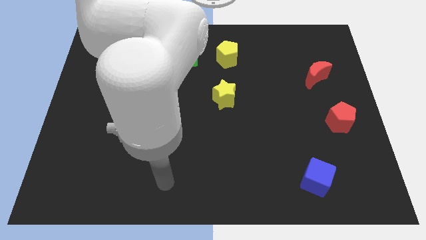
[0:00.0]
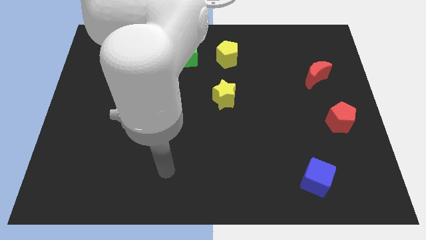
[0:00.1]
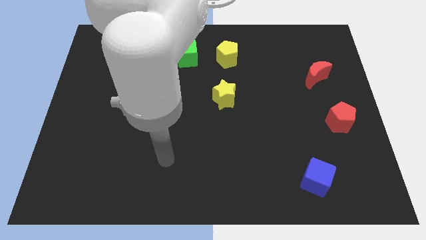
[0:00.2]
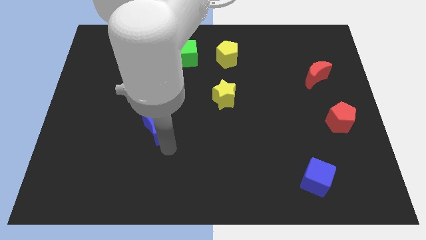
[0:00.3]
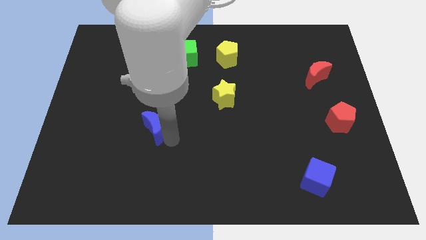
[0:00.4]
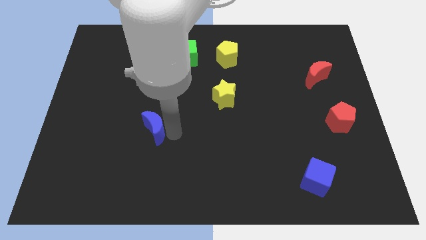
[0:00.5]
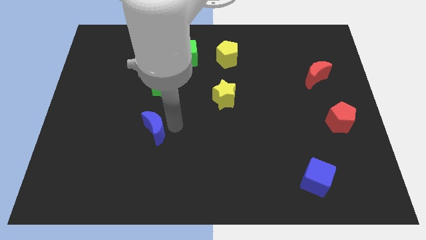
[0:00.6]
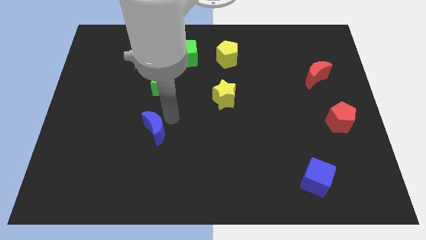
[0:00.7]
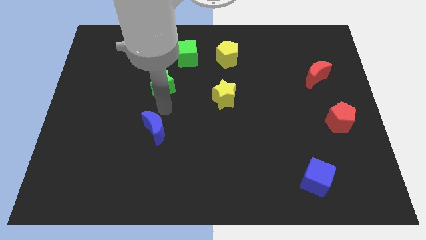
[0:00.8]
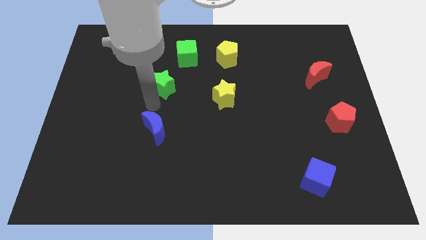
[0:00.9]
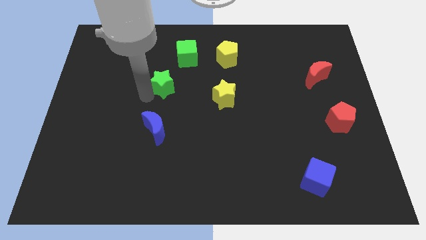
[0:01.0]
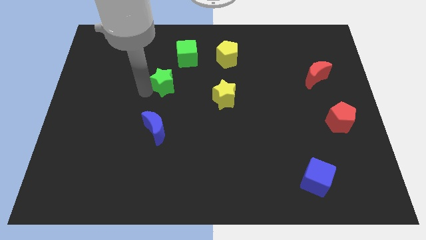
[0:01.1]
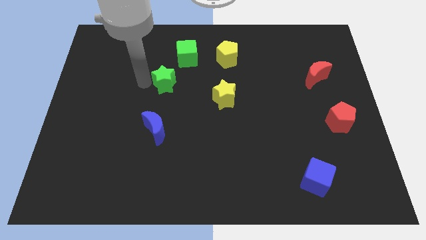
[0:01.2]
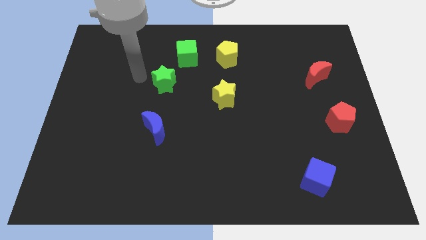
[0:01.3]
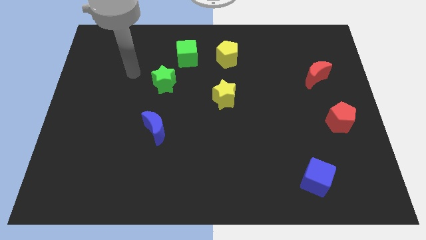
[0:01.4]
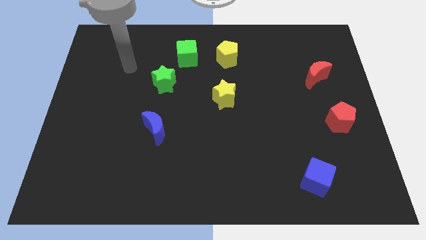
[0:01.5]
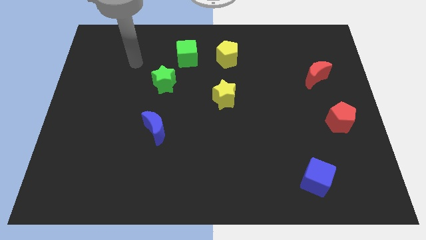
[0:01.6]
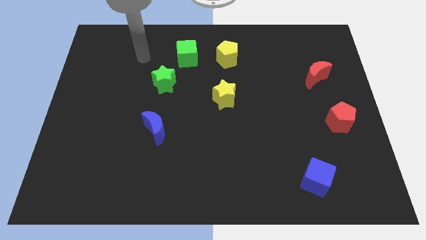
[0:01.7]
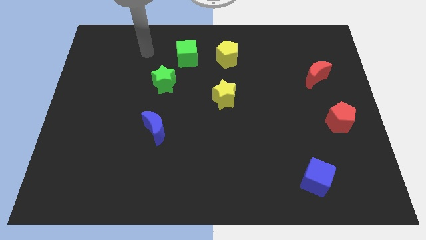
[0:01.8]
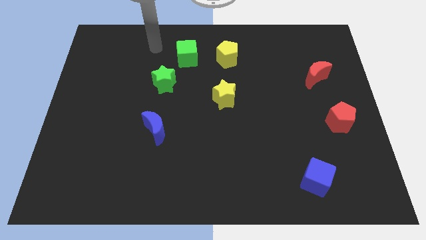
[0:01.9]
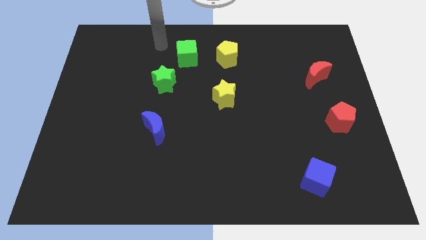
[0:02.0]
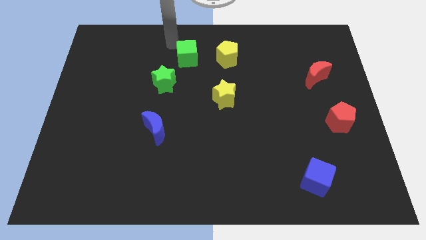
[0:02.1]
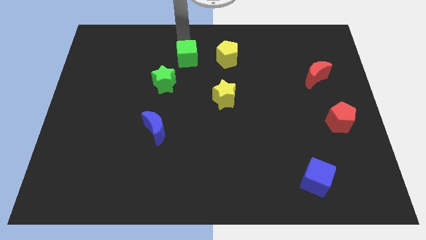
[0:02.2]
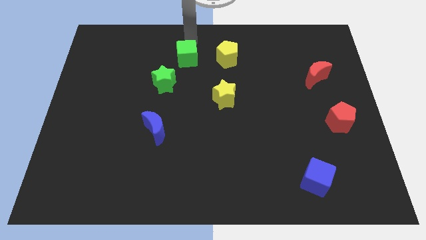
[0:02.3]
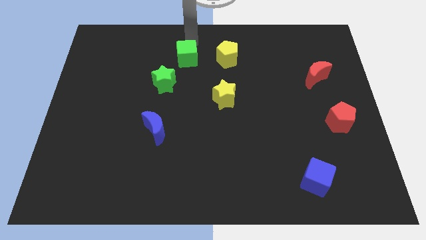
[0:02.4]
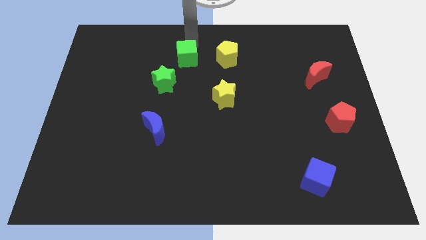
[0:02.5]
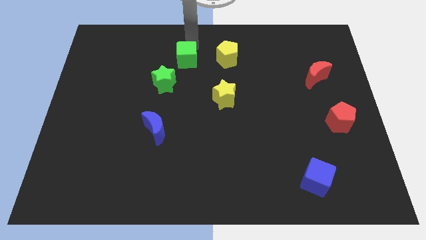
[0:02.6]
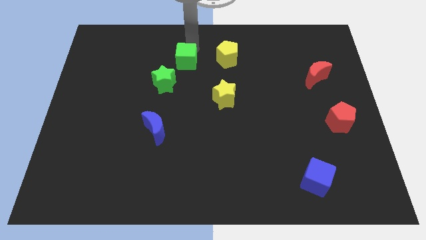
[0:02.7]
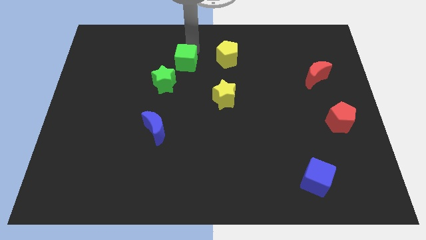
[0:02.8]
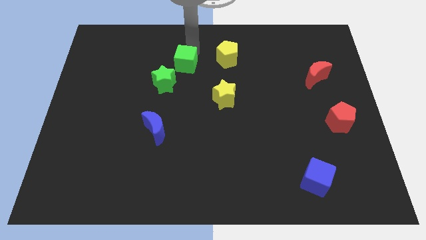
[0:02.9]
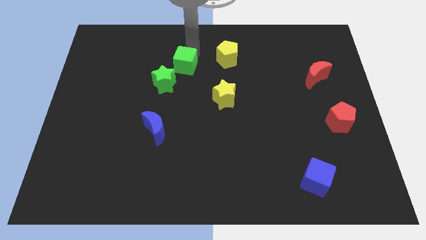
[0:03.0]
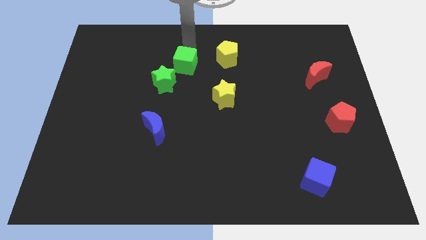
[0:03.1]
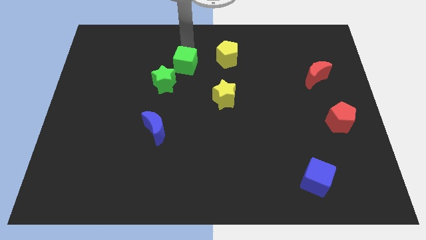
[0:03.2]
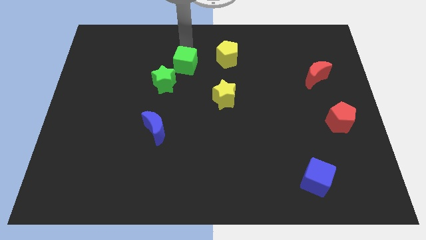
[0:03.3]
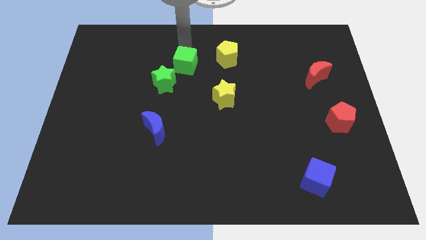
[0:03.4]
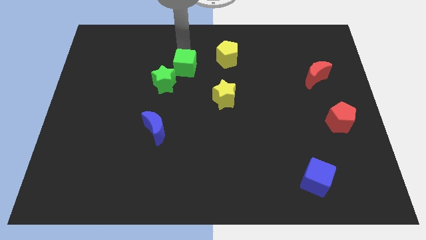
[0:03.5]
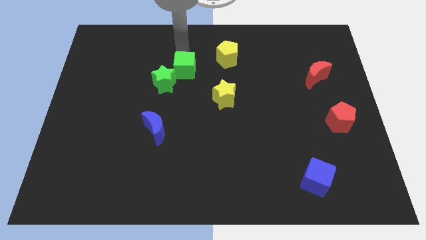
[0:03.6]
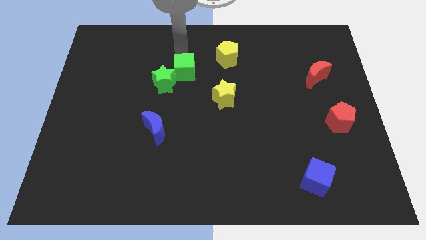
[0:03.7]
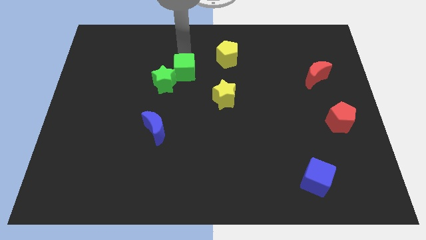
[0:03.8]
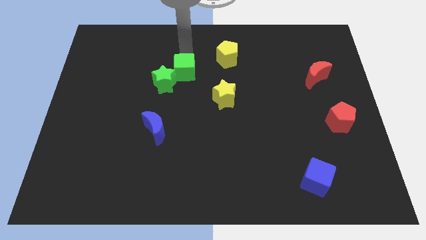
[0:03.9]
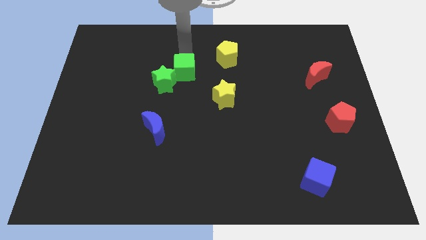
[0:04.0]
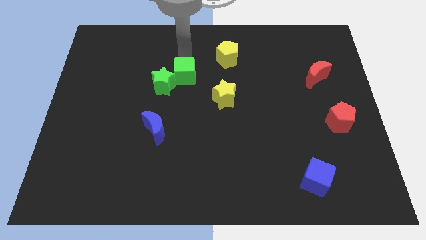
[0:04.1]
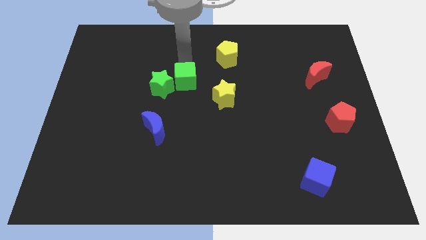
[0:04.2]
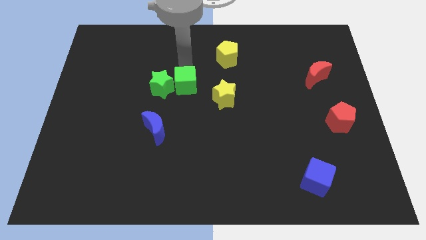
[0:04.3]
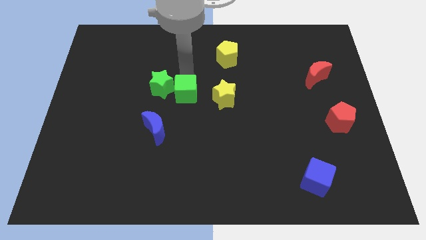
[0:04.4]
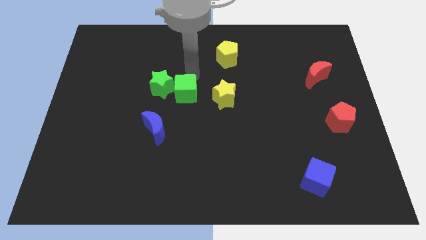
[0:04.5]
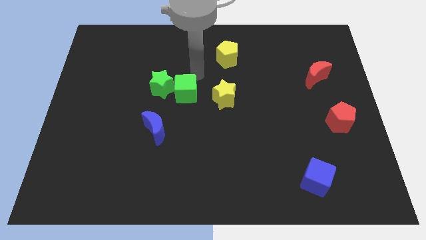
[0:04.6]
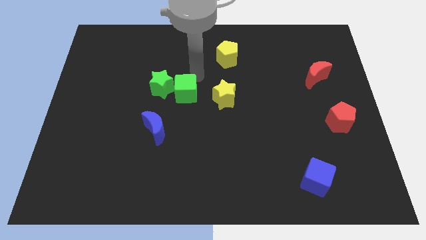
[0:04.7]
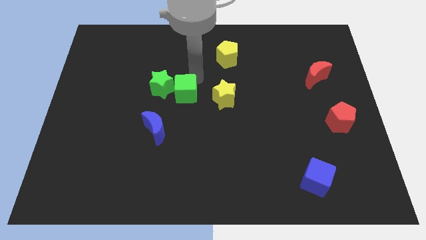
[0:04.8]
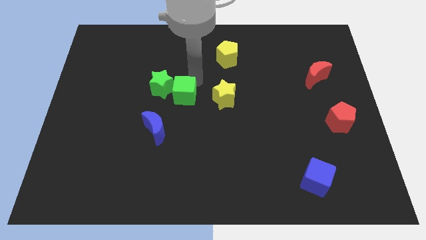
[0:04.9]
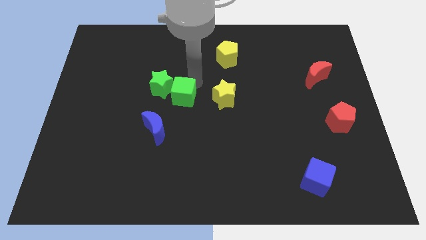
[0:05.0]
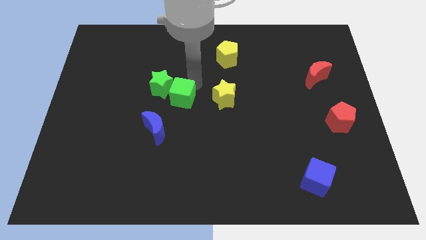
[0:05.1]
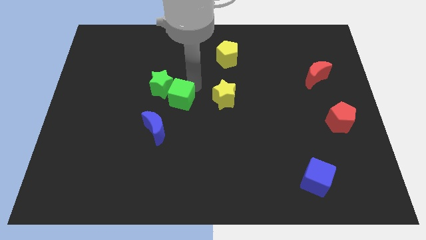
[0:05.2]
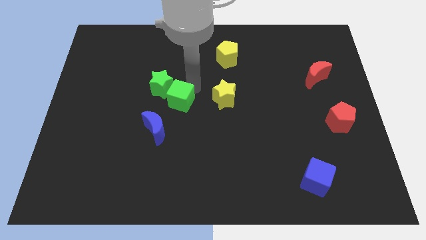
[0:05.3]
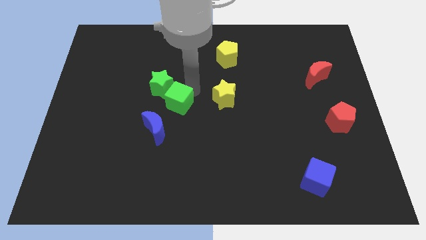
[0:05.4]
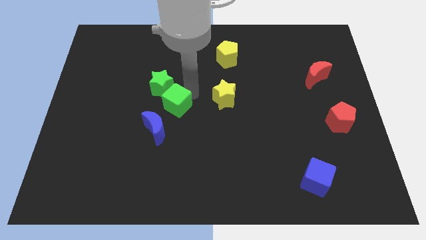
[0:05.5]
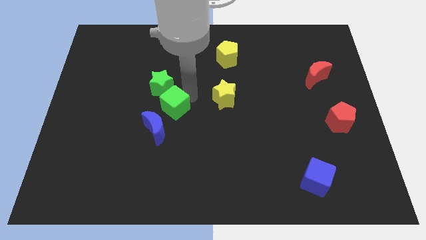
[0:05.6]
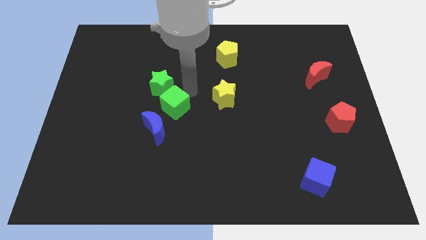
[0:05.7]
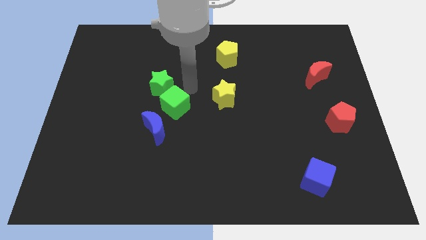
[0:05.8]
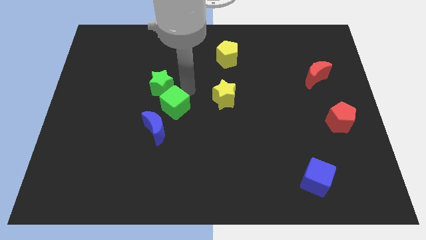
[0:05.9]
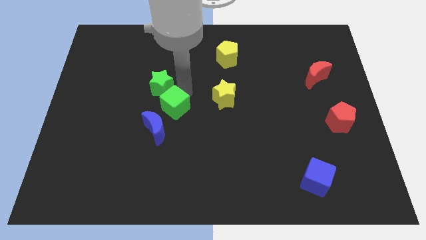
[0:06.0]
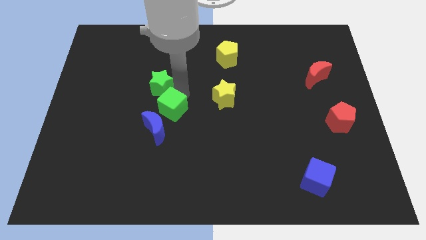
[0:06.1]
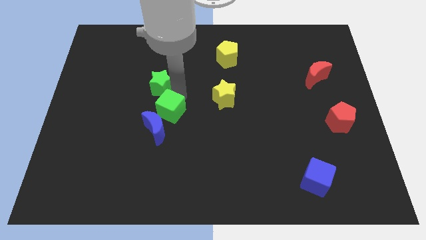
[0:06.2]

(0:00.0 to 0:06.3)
put the green cube towards the blue moon

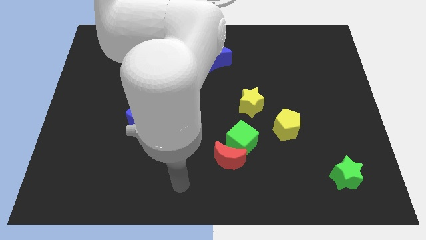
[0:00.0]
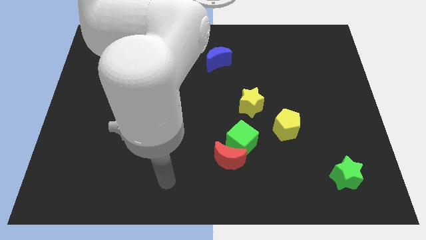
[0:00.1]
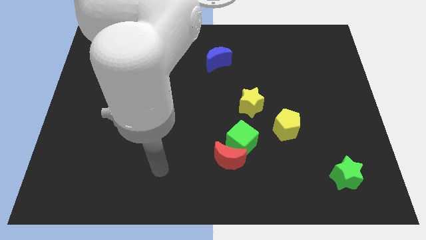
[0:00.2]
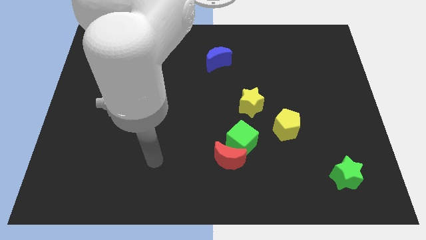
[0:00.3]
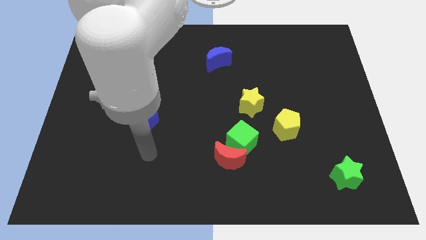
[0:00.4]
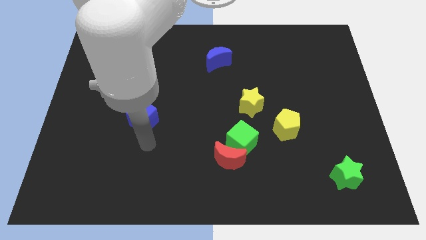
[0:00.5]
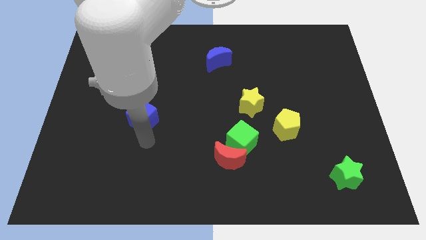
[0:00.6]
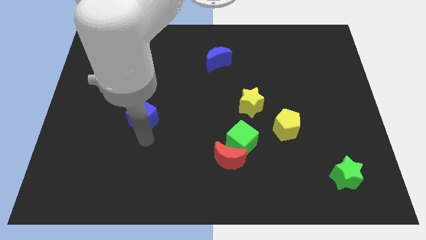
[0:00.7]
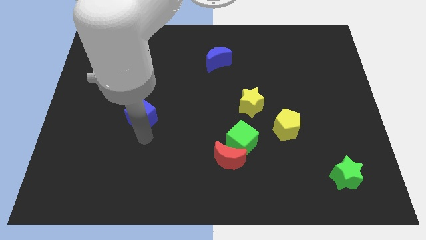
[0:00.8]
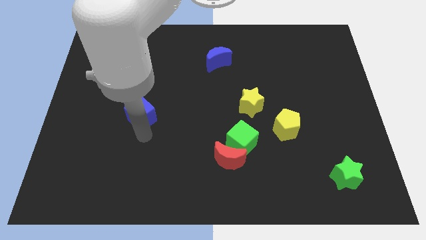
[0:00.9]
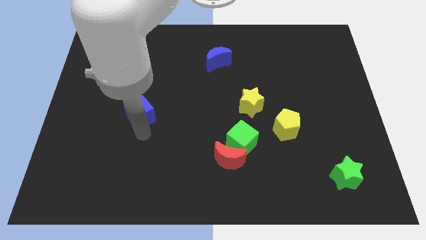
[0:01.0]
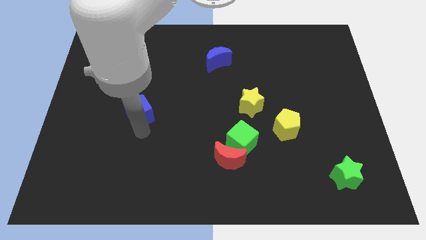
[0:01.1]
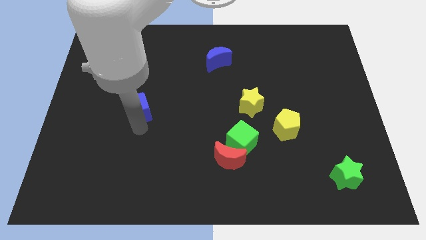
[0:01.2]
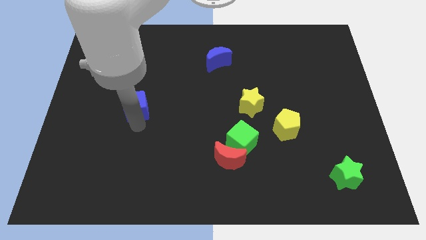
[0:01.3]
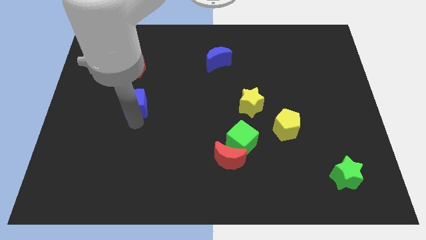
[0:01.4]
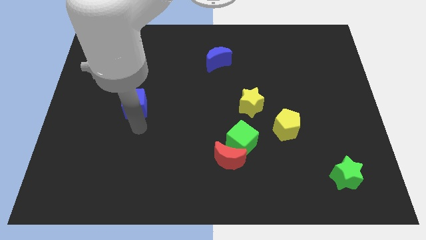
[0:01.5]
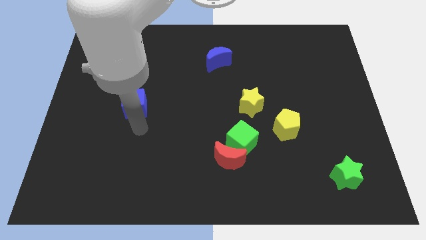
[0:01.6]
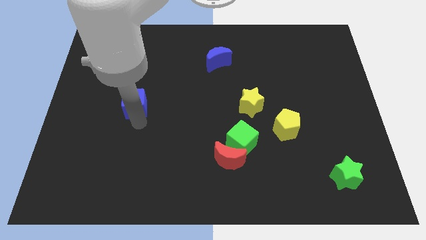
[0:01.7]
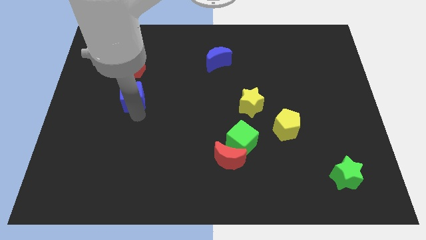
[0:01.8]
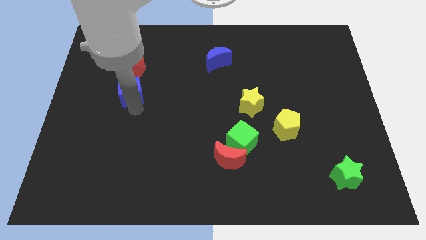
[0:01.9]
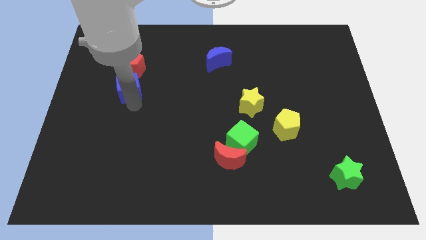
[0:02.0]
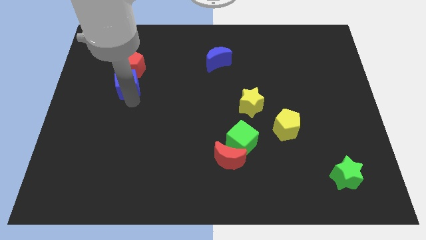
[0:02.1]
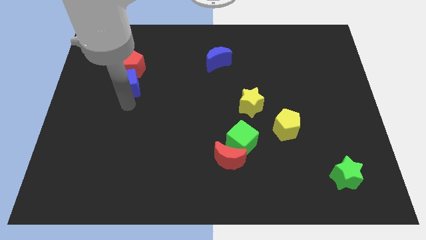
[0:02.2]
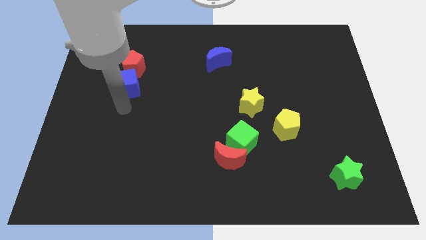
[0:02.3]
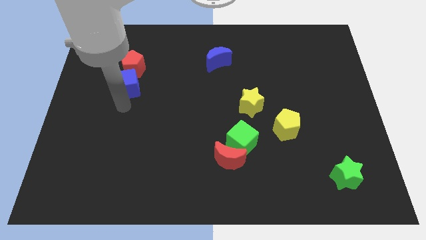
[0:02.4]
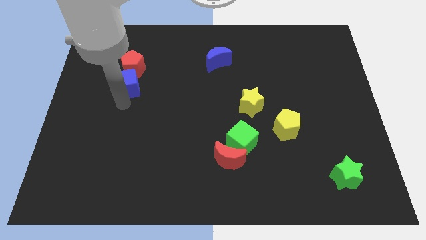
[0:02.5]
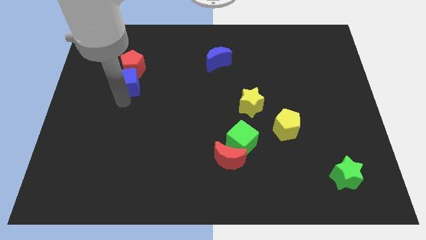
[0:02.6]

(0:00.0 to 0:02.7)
slide the blue cube to the red pentagon
